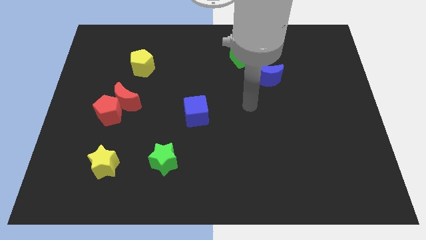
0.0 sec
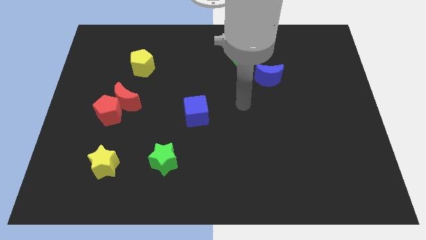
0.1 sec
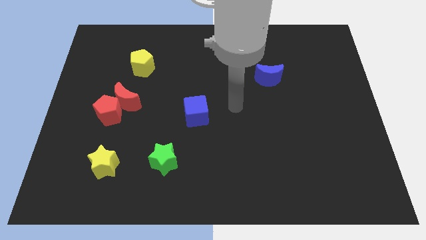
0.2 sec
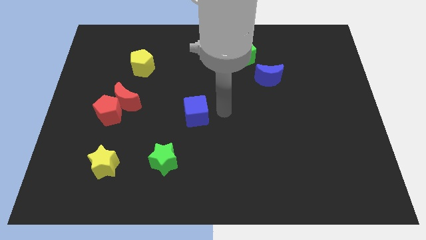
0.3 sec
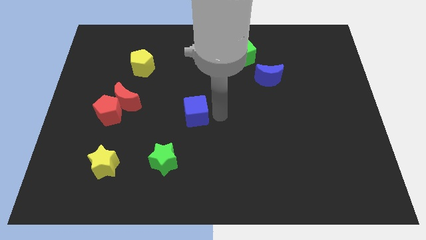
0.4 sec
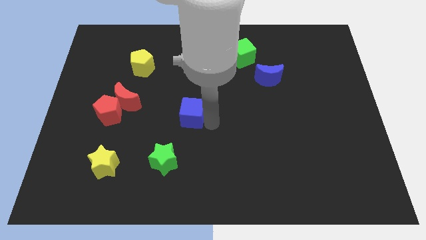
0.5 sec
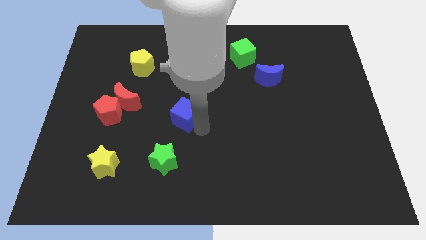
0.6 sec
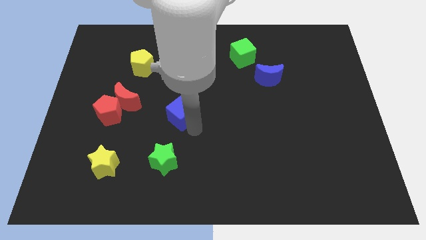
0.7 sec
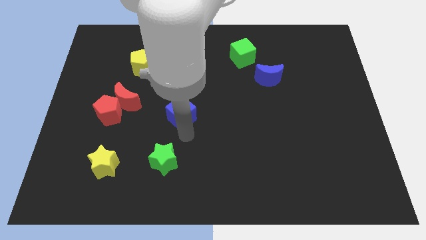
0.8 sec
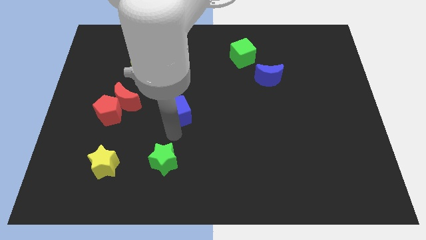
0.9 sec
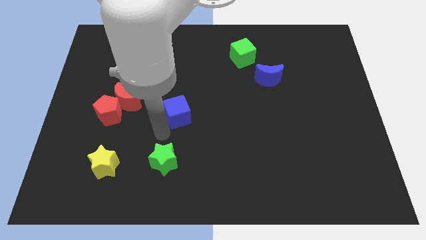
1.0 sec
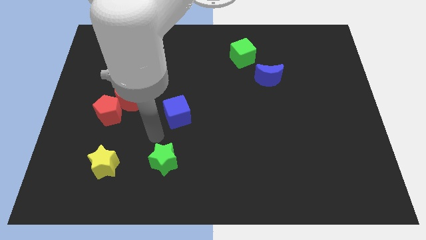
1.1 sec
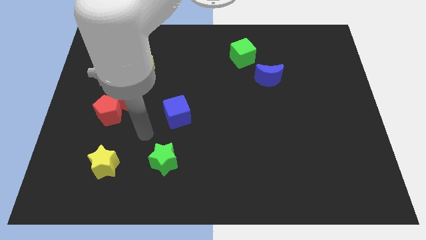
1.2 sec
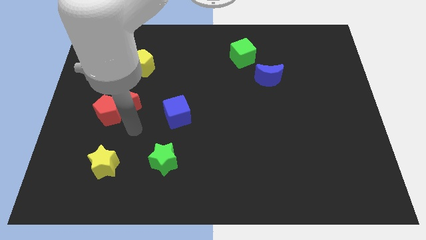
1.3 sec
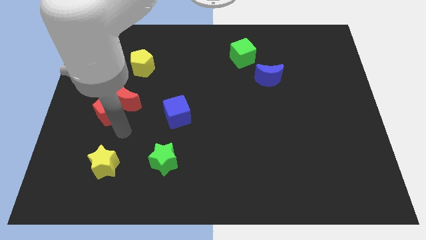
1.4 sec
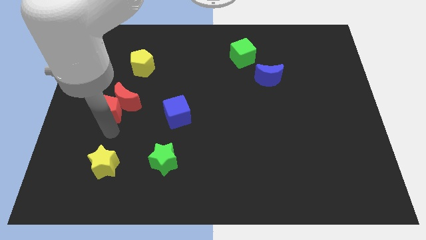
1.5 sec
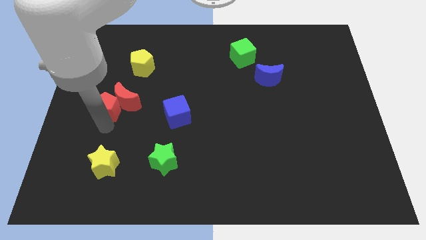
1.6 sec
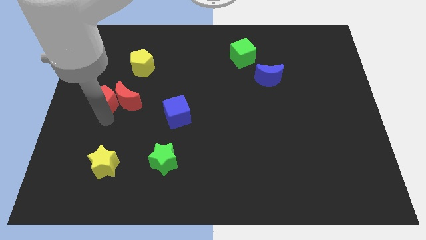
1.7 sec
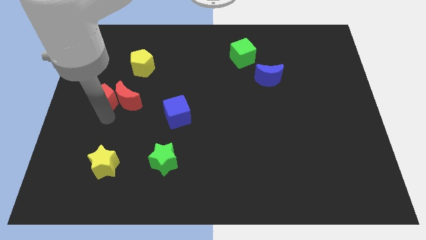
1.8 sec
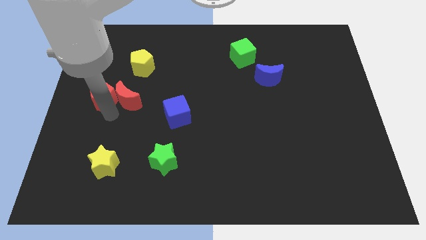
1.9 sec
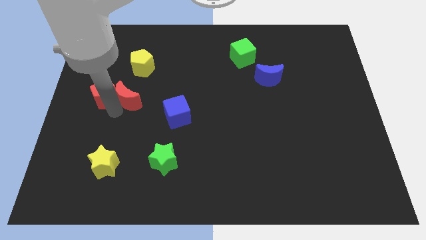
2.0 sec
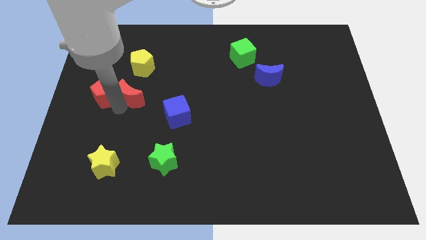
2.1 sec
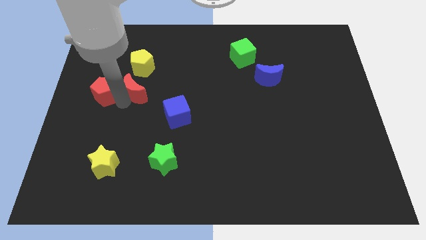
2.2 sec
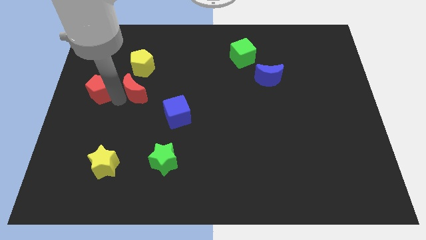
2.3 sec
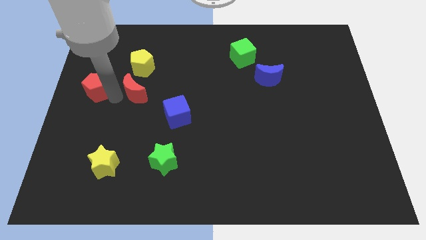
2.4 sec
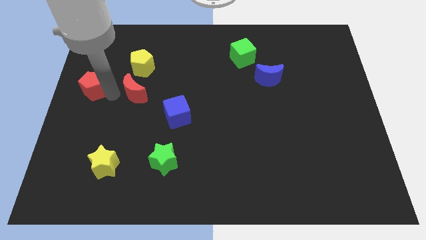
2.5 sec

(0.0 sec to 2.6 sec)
move the red moon away from the red pentagon

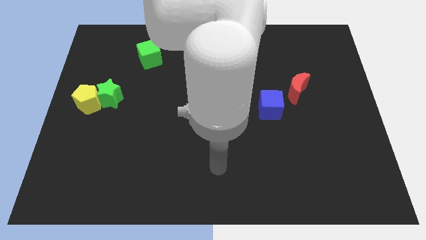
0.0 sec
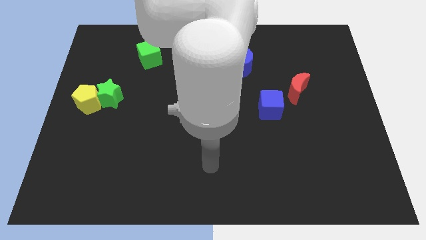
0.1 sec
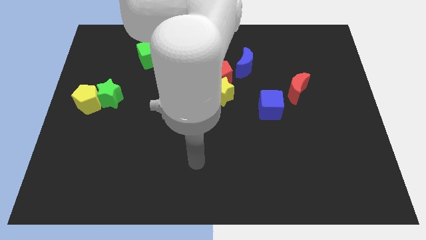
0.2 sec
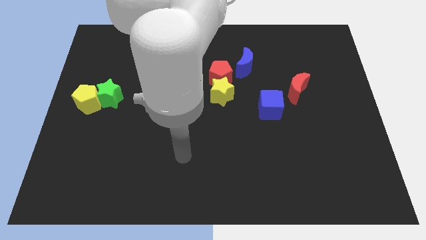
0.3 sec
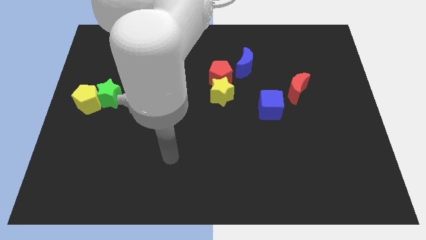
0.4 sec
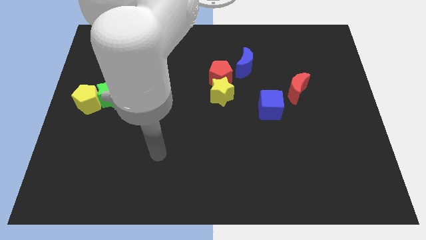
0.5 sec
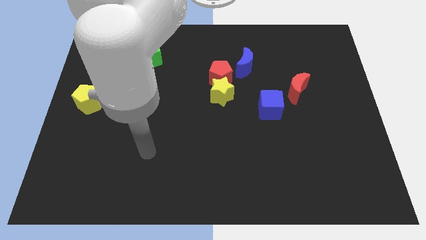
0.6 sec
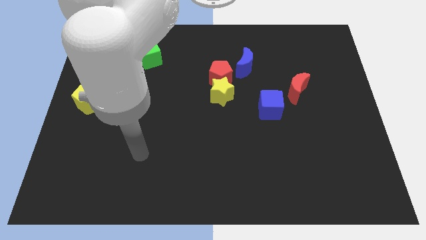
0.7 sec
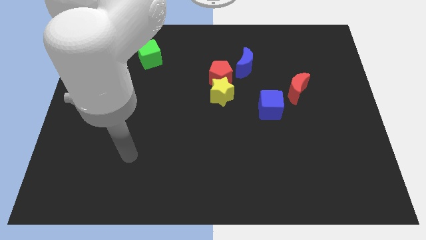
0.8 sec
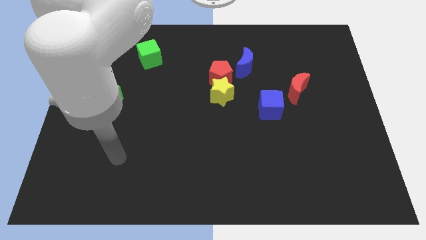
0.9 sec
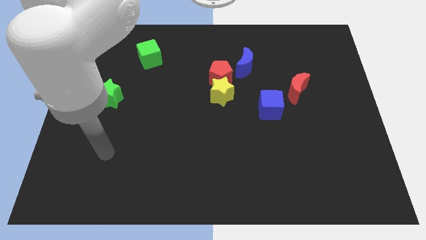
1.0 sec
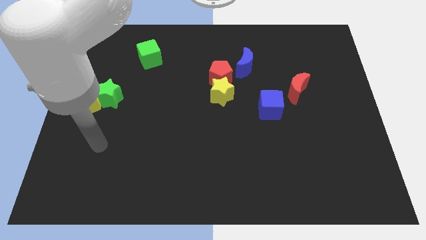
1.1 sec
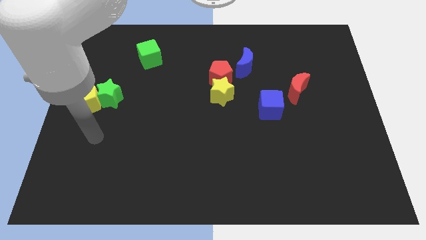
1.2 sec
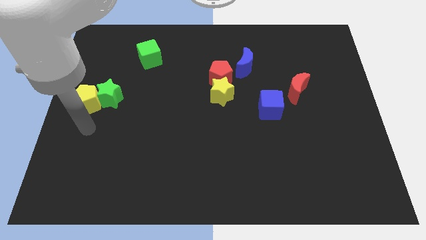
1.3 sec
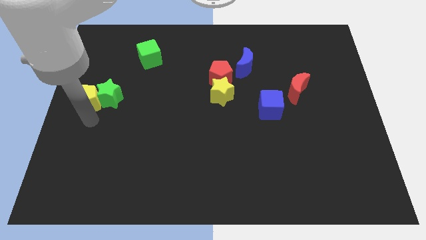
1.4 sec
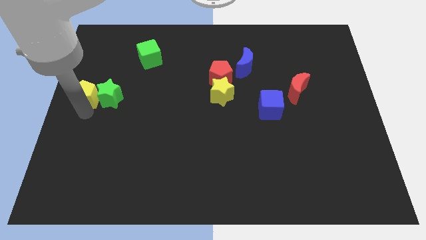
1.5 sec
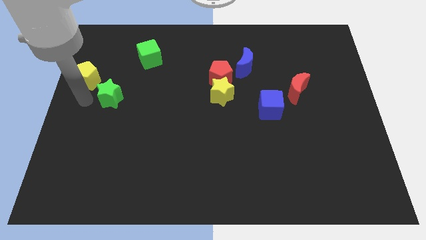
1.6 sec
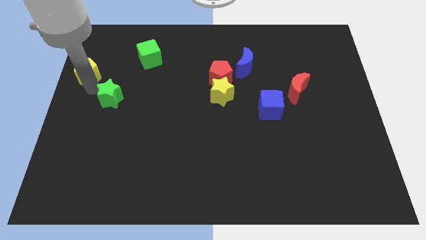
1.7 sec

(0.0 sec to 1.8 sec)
move the green star away from the yellow pentagon

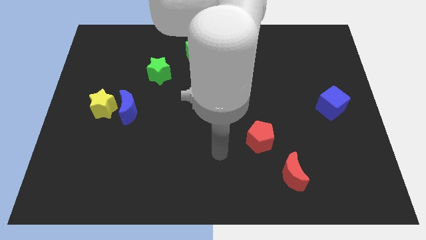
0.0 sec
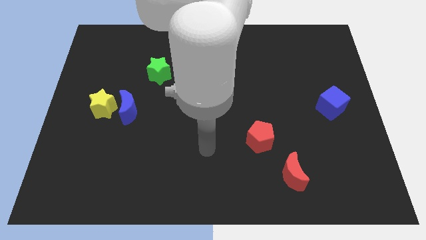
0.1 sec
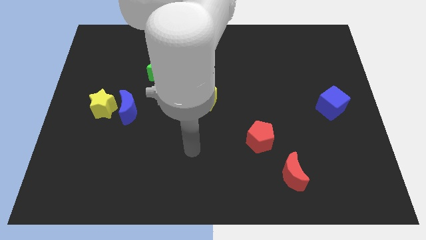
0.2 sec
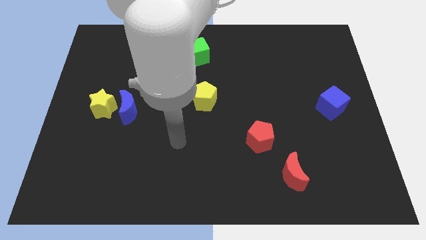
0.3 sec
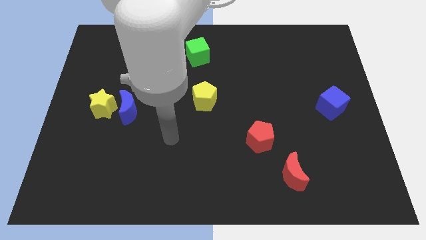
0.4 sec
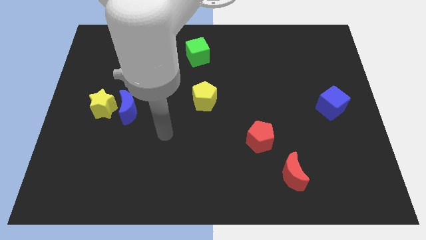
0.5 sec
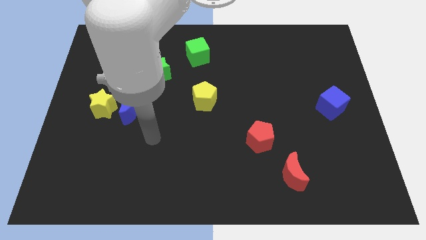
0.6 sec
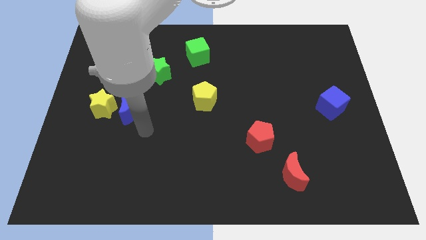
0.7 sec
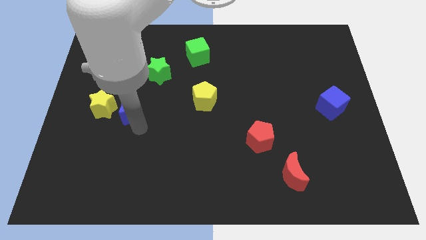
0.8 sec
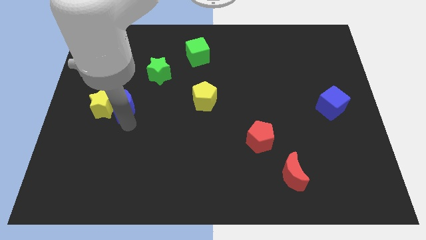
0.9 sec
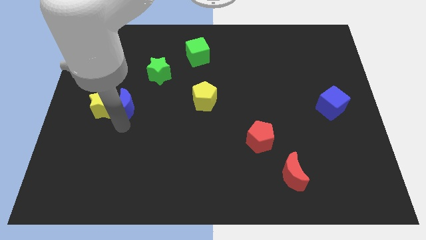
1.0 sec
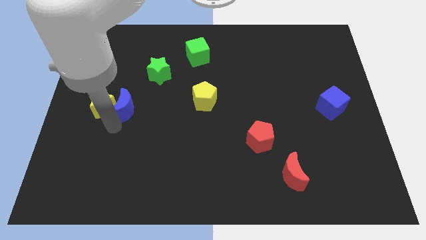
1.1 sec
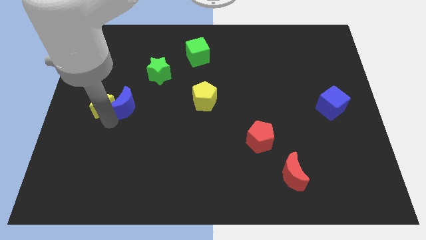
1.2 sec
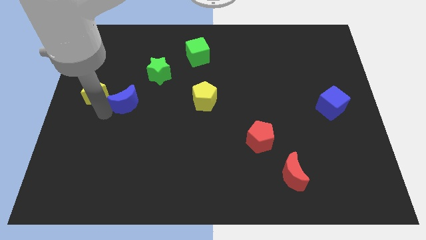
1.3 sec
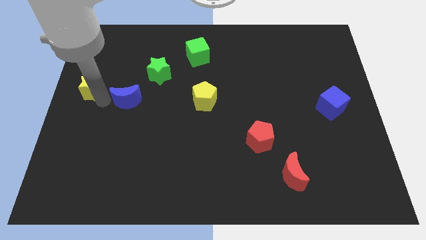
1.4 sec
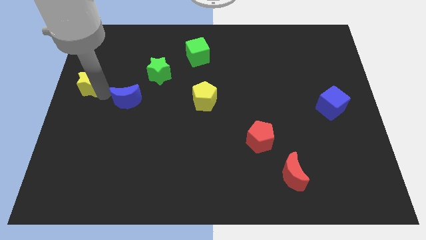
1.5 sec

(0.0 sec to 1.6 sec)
move the blue moon away from the yellow star

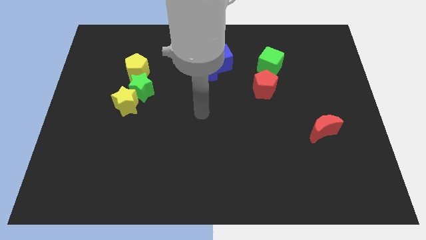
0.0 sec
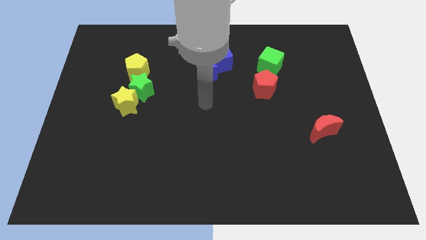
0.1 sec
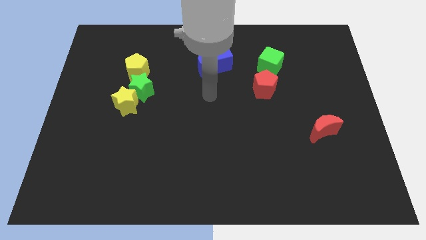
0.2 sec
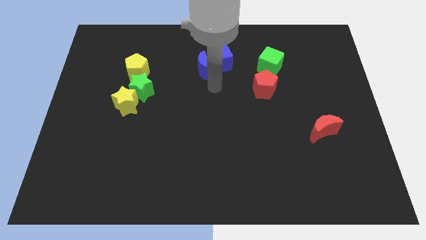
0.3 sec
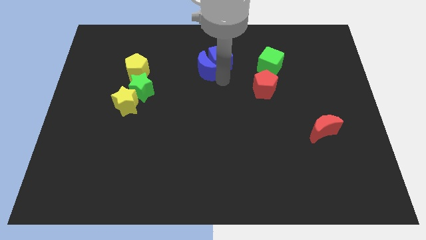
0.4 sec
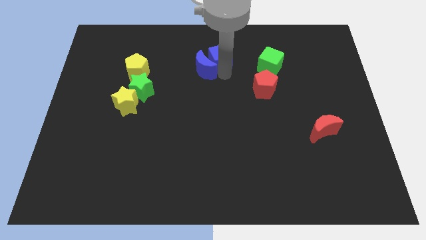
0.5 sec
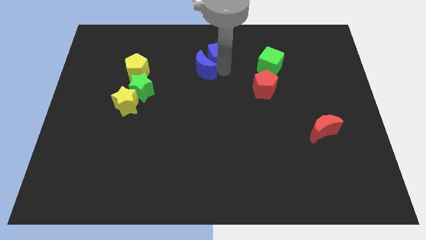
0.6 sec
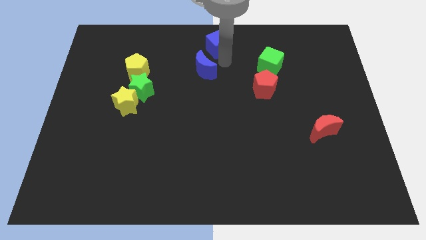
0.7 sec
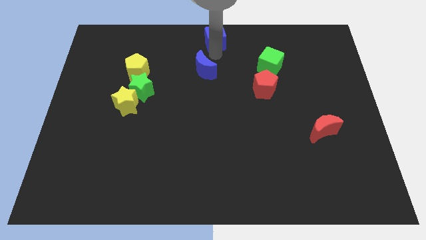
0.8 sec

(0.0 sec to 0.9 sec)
pull the blue moon apart from the blue cube

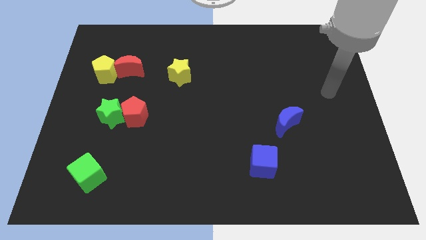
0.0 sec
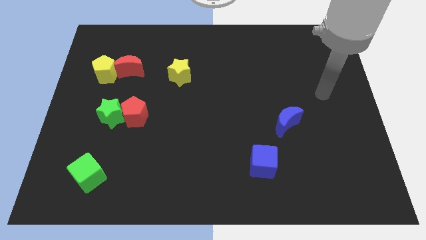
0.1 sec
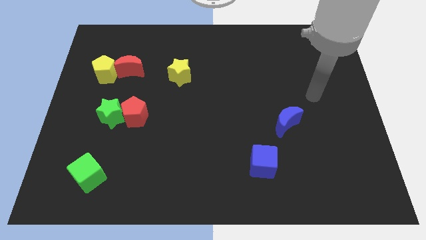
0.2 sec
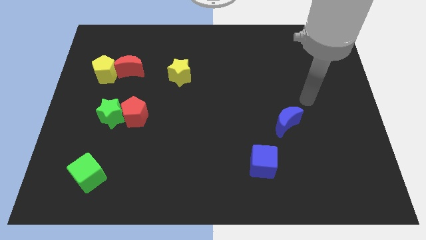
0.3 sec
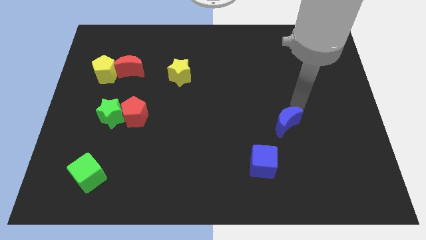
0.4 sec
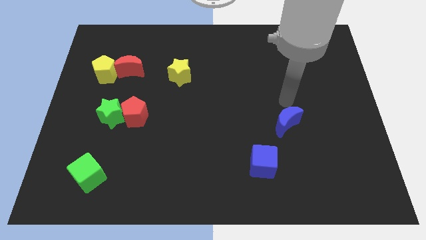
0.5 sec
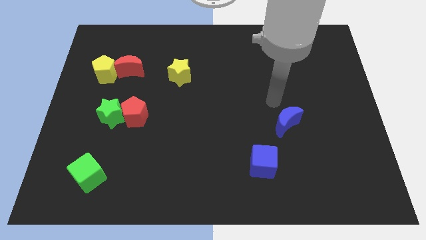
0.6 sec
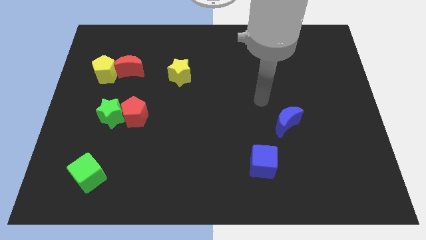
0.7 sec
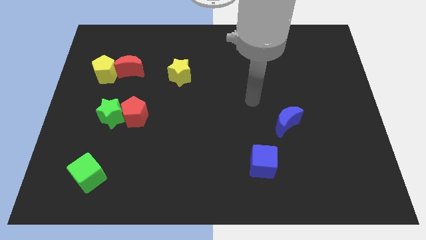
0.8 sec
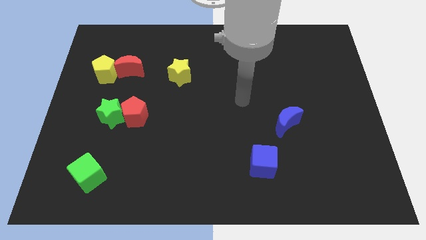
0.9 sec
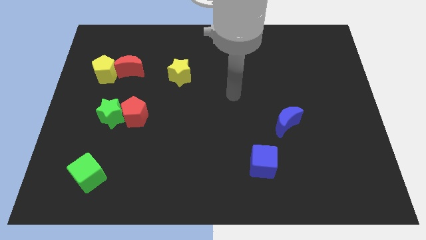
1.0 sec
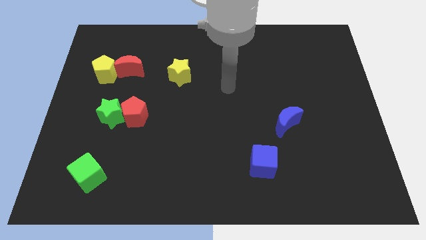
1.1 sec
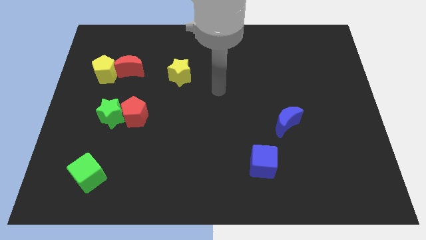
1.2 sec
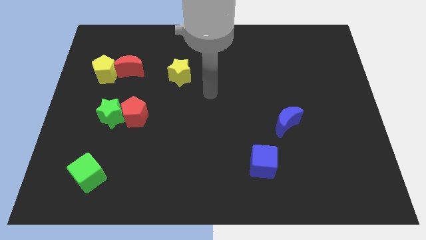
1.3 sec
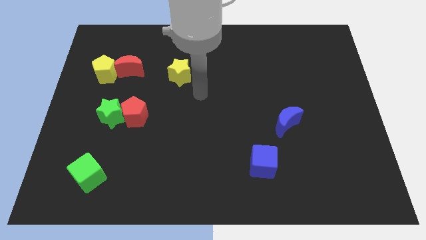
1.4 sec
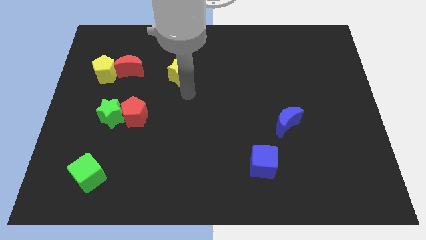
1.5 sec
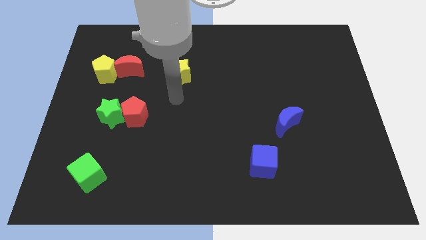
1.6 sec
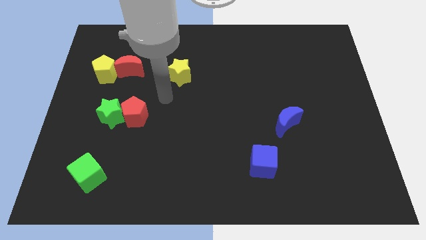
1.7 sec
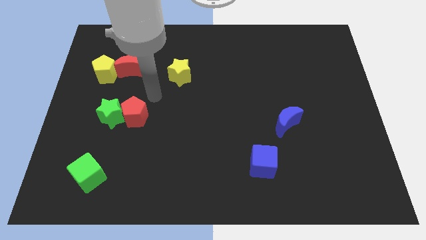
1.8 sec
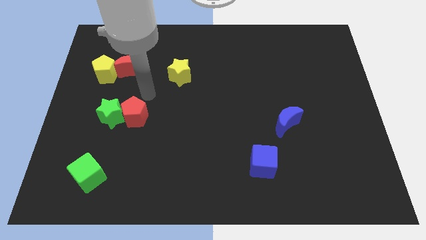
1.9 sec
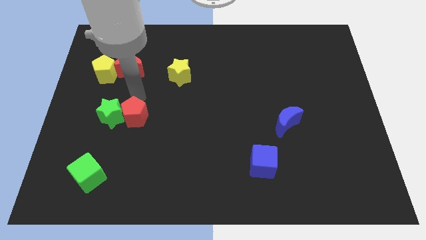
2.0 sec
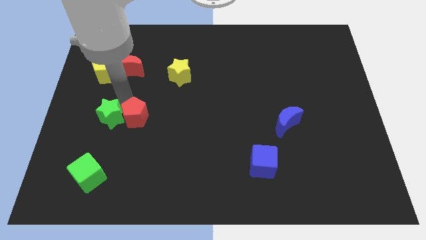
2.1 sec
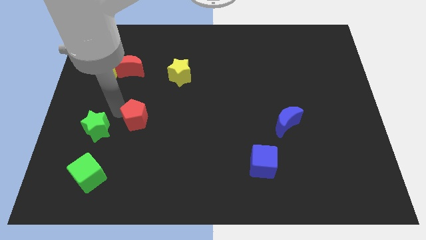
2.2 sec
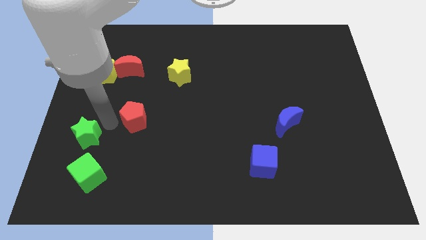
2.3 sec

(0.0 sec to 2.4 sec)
move the red pentagon away from the green star
